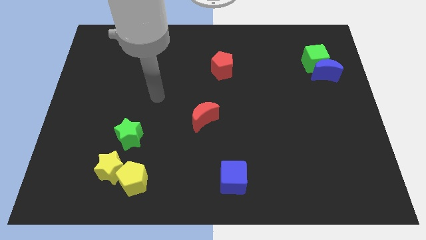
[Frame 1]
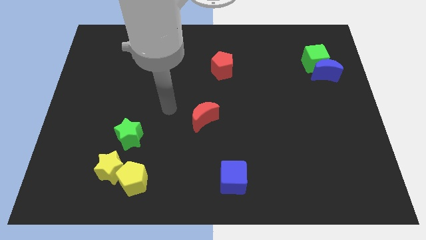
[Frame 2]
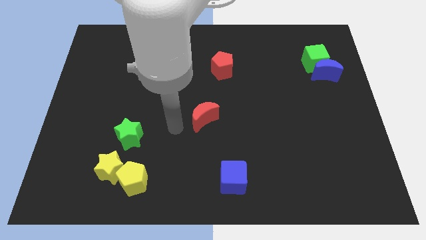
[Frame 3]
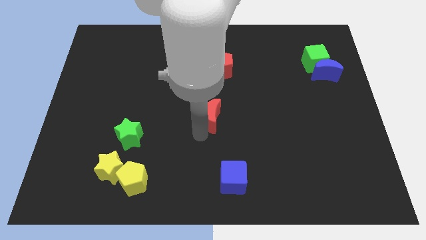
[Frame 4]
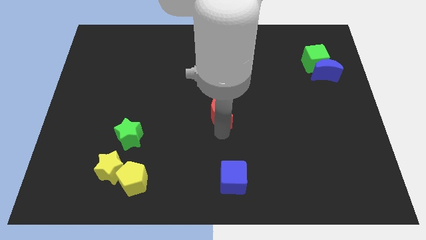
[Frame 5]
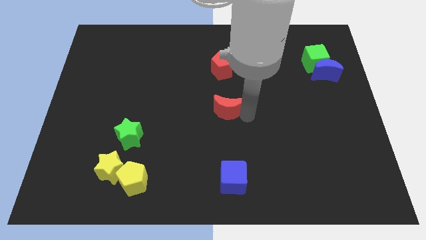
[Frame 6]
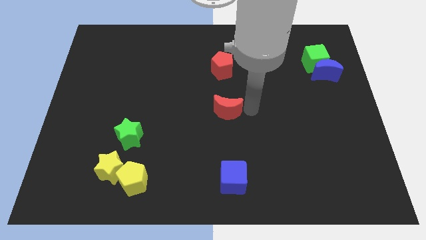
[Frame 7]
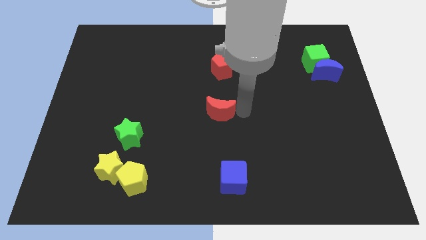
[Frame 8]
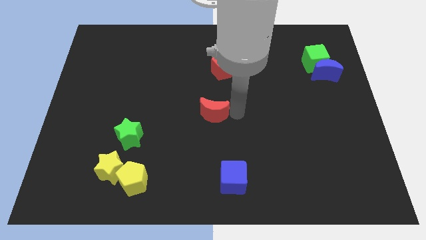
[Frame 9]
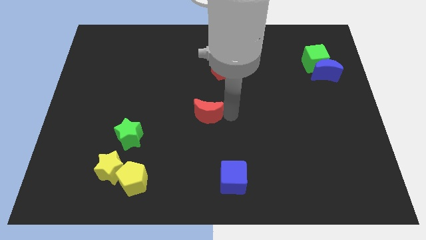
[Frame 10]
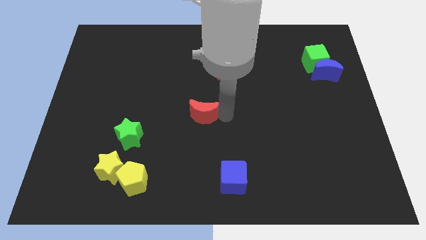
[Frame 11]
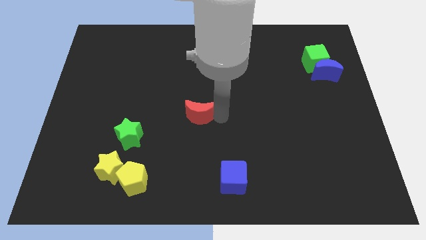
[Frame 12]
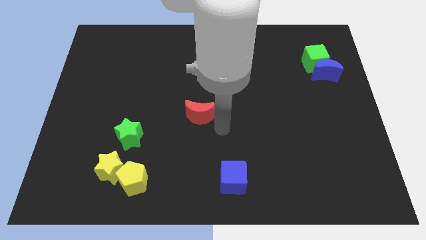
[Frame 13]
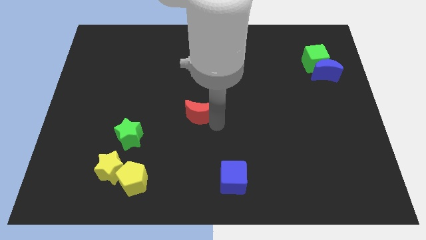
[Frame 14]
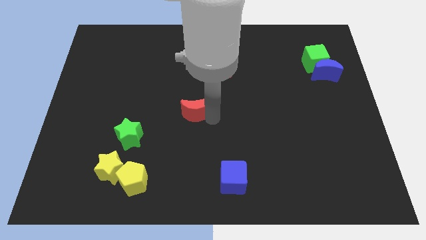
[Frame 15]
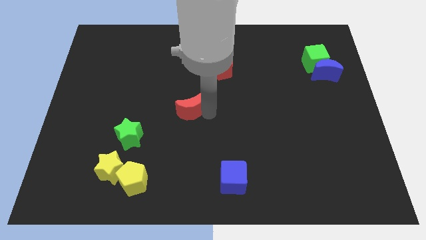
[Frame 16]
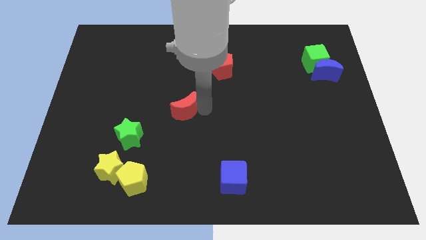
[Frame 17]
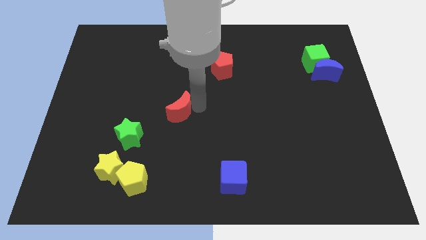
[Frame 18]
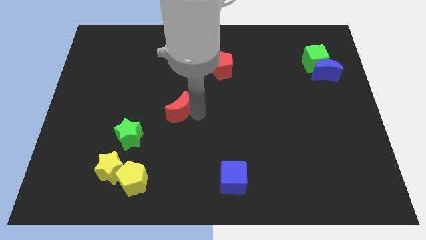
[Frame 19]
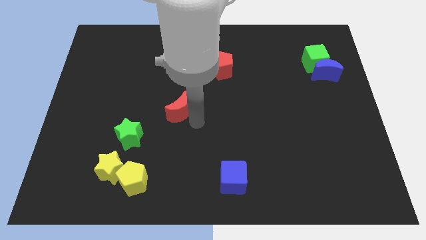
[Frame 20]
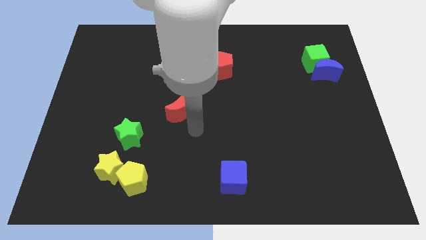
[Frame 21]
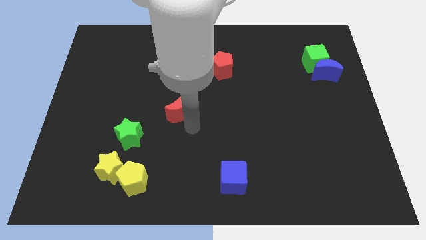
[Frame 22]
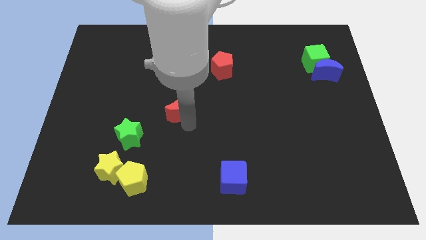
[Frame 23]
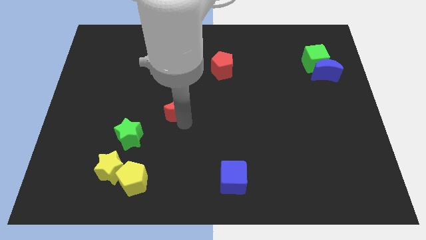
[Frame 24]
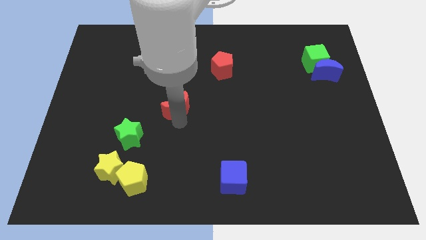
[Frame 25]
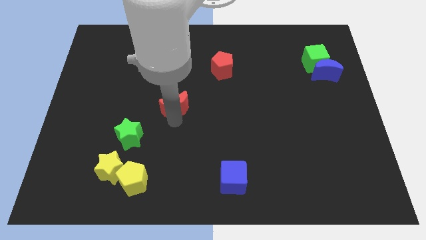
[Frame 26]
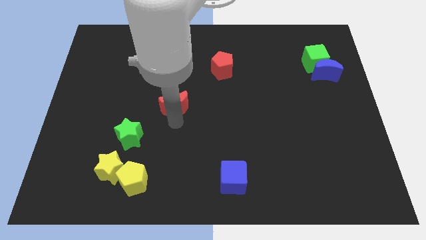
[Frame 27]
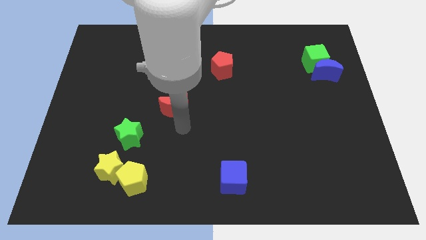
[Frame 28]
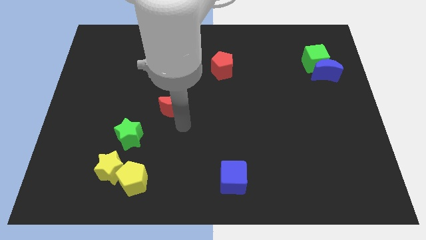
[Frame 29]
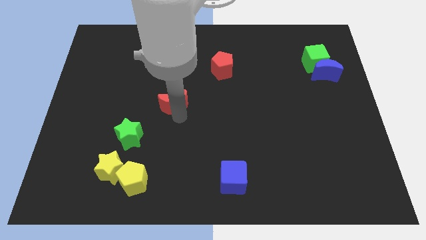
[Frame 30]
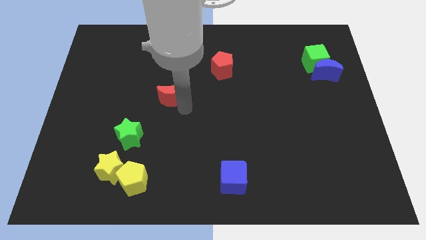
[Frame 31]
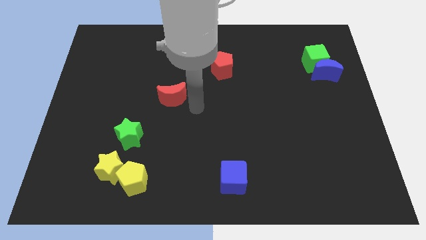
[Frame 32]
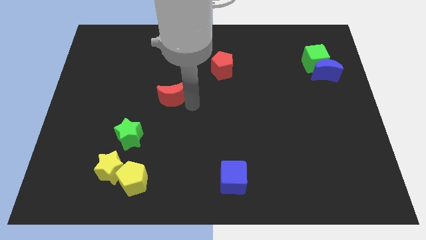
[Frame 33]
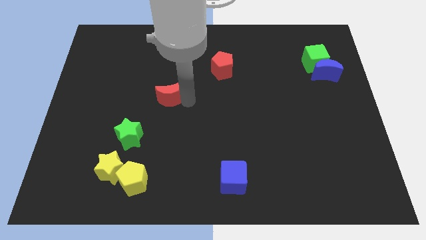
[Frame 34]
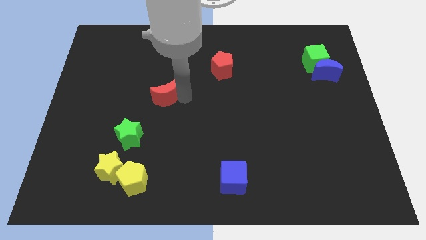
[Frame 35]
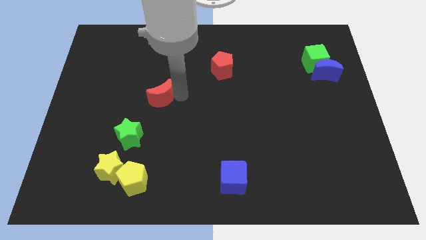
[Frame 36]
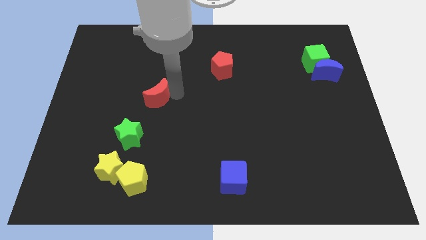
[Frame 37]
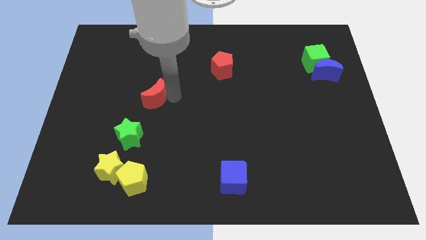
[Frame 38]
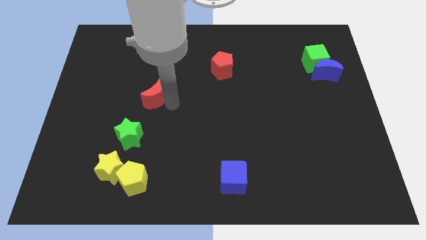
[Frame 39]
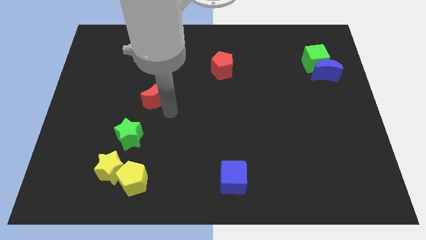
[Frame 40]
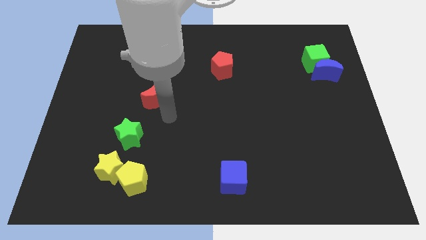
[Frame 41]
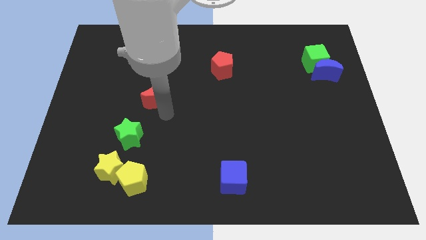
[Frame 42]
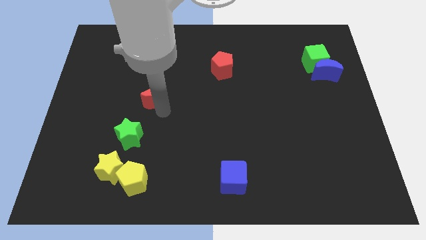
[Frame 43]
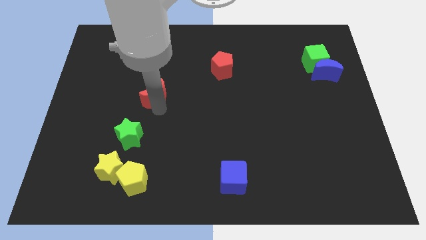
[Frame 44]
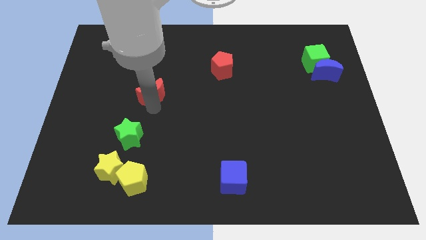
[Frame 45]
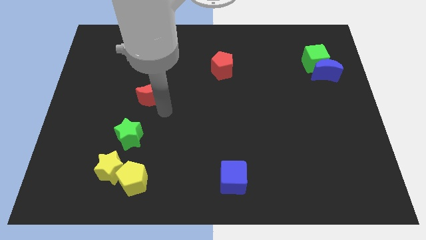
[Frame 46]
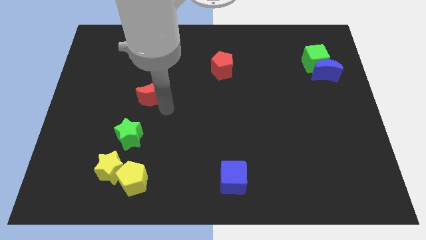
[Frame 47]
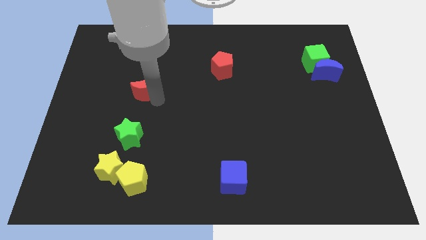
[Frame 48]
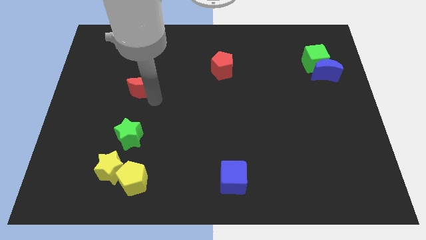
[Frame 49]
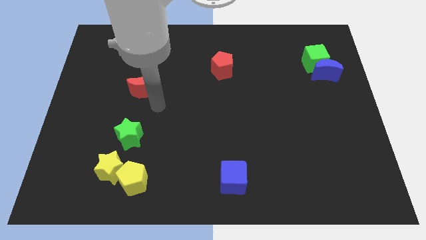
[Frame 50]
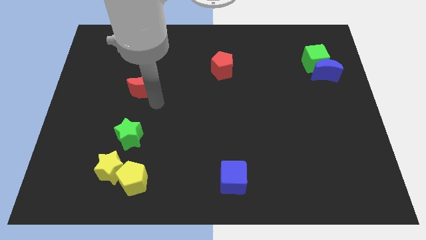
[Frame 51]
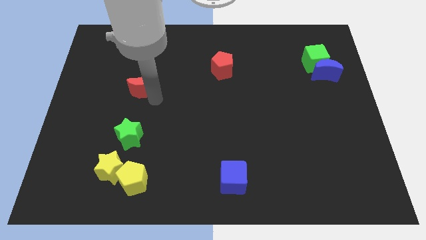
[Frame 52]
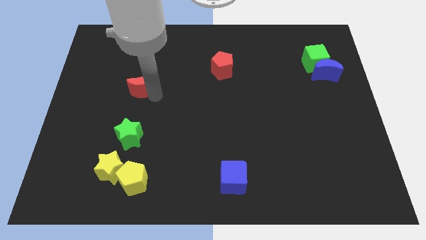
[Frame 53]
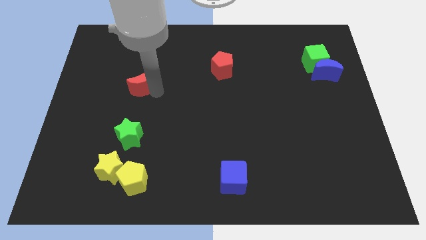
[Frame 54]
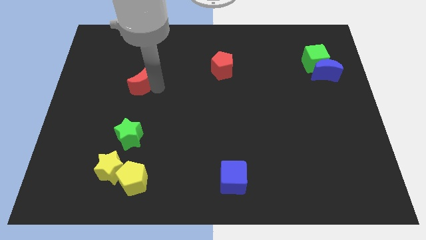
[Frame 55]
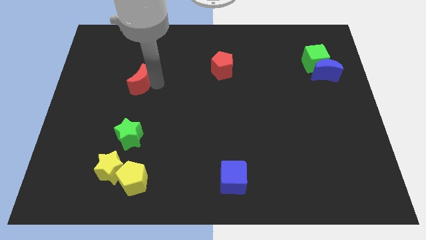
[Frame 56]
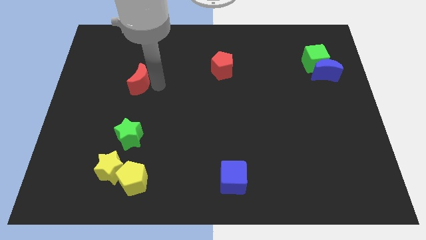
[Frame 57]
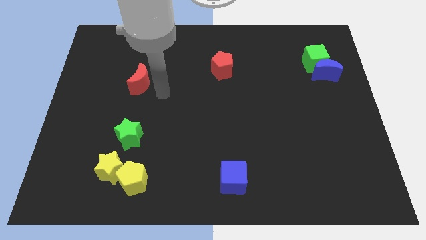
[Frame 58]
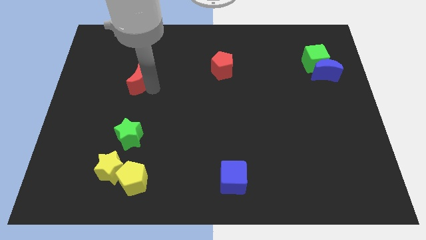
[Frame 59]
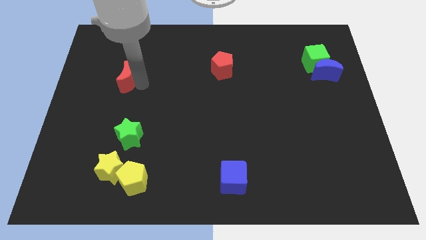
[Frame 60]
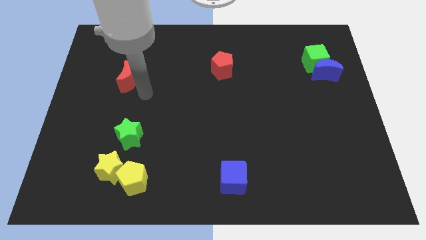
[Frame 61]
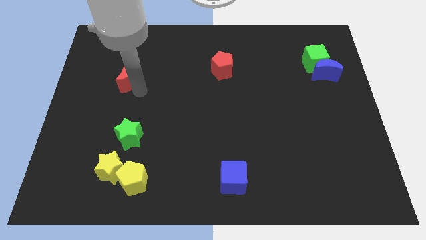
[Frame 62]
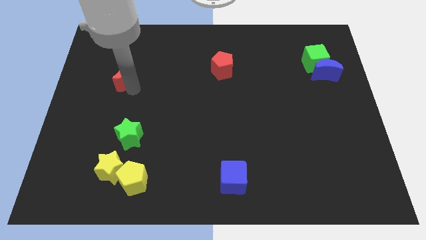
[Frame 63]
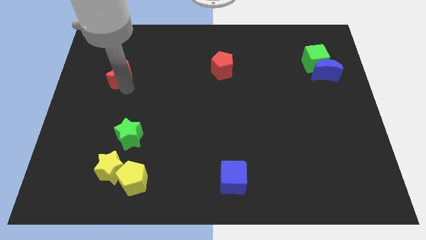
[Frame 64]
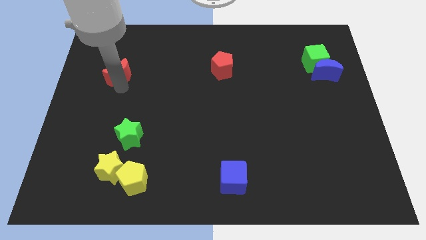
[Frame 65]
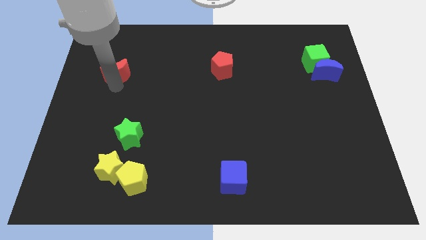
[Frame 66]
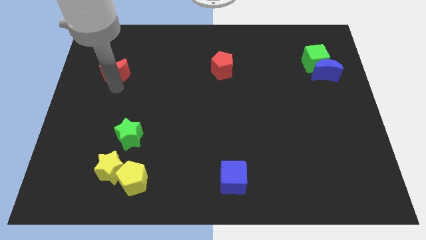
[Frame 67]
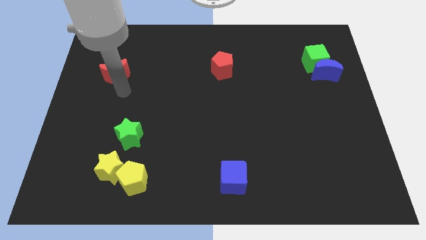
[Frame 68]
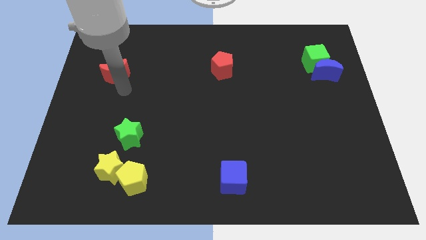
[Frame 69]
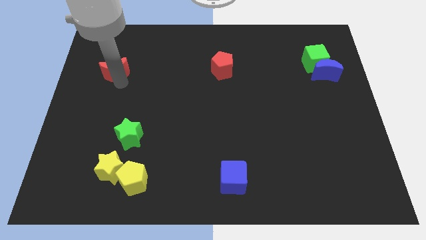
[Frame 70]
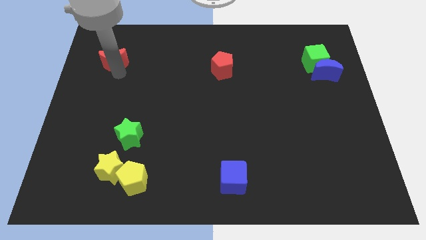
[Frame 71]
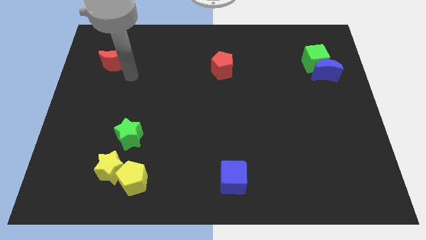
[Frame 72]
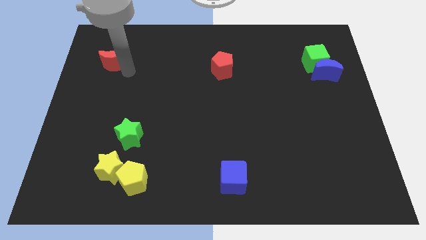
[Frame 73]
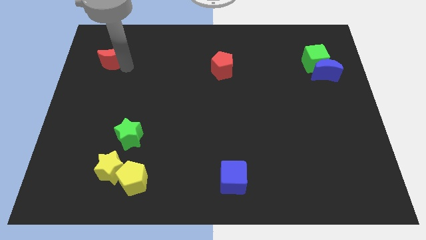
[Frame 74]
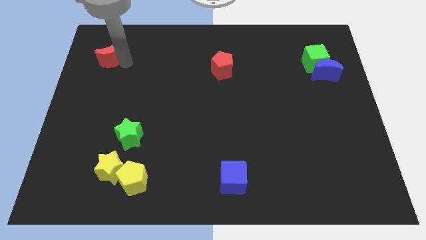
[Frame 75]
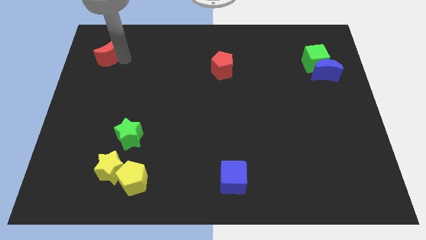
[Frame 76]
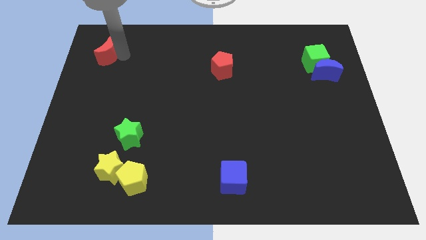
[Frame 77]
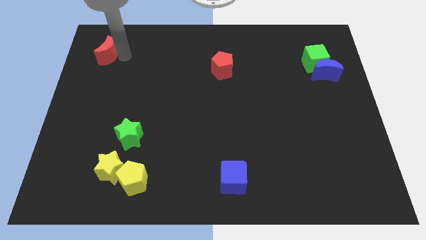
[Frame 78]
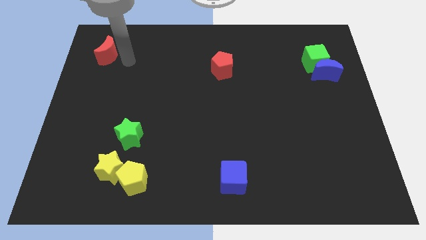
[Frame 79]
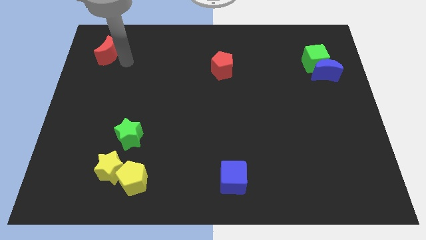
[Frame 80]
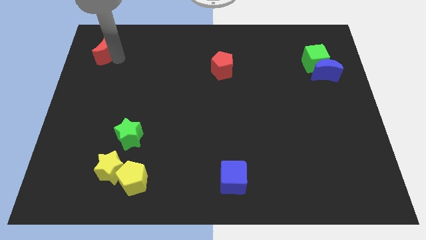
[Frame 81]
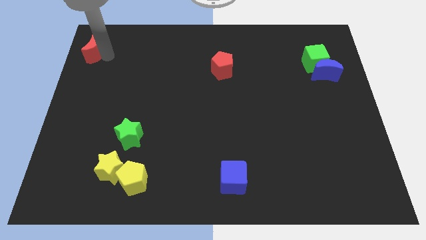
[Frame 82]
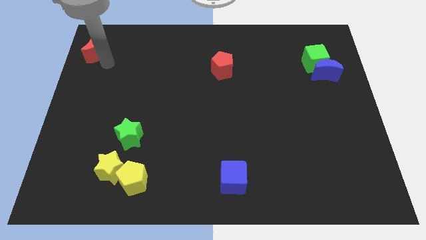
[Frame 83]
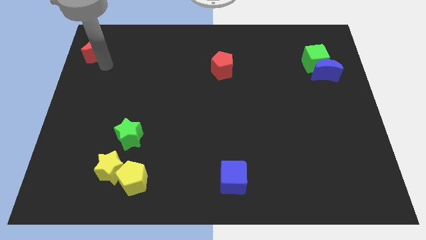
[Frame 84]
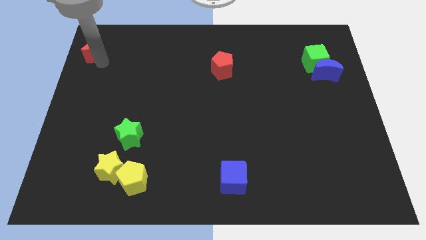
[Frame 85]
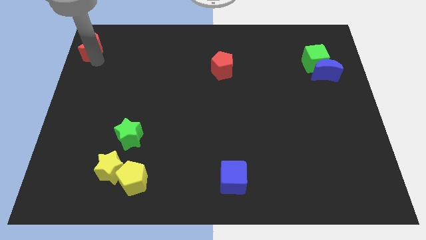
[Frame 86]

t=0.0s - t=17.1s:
slide the red moon to the top left
